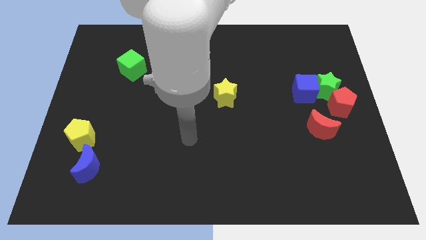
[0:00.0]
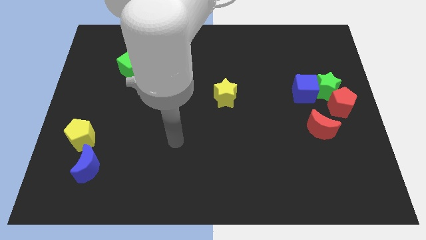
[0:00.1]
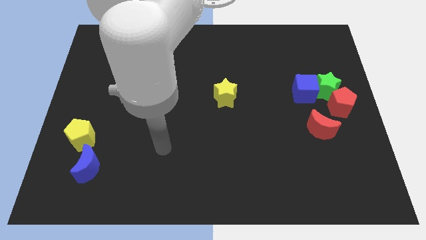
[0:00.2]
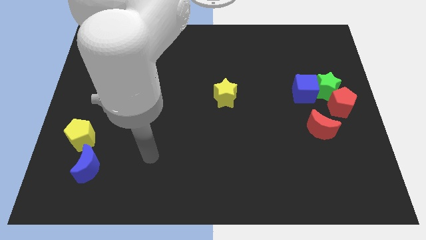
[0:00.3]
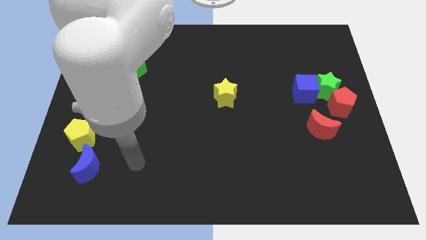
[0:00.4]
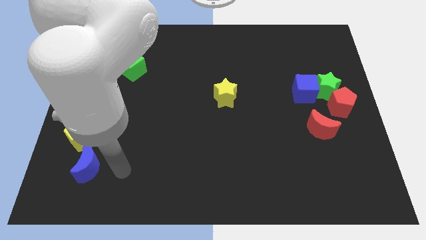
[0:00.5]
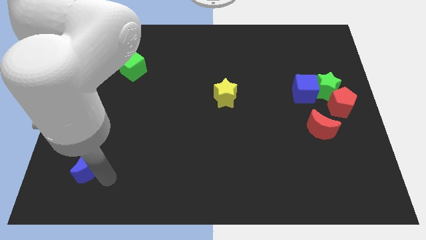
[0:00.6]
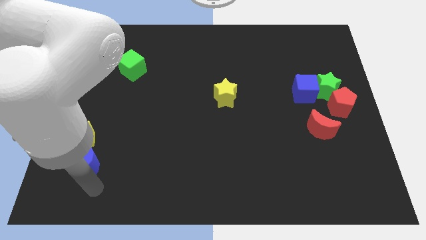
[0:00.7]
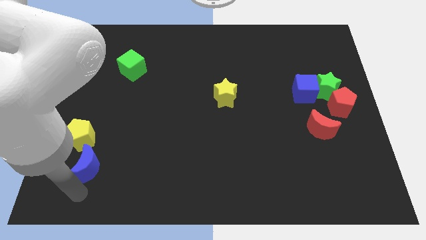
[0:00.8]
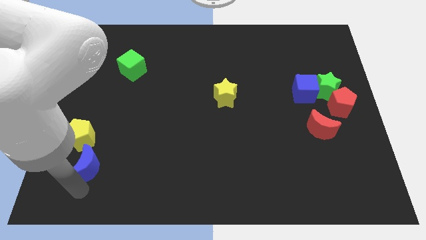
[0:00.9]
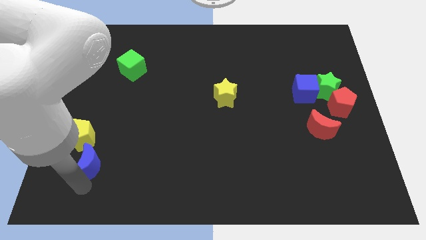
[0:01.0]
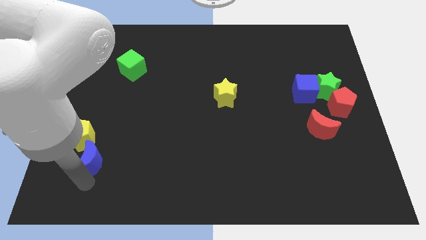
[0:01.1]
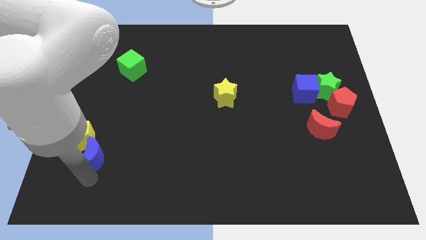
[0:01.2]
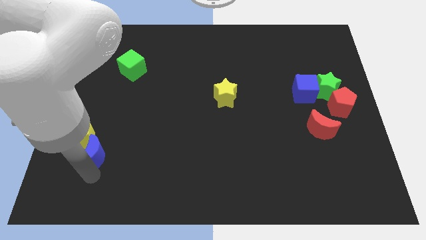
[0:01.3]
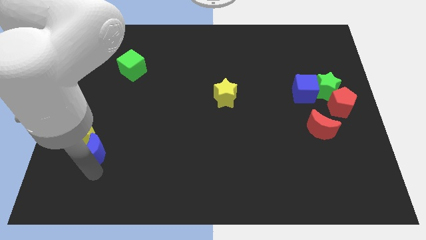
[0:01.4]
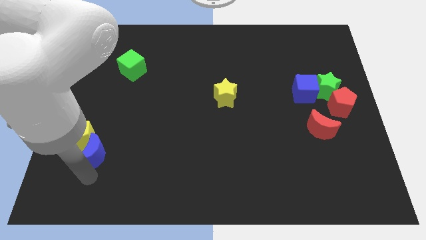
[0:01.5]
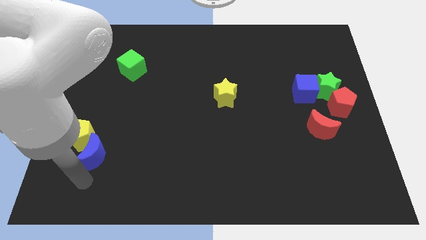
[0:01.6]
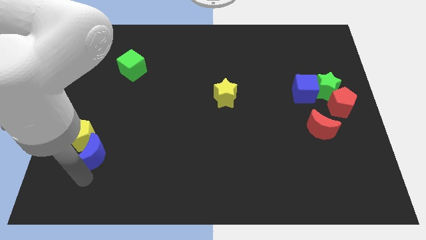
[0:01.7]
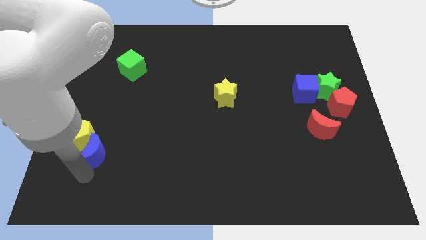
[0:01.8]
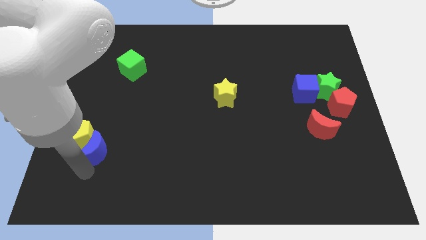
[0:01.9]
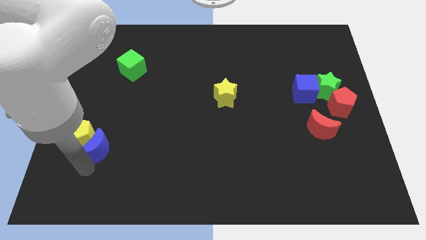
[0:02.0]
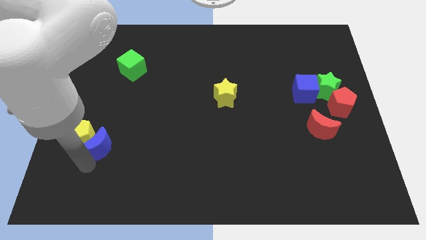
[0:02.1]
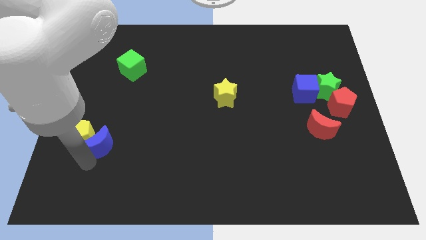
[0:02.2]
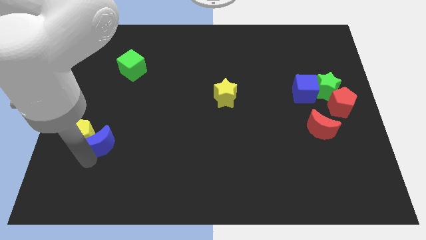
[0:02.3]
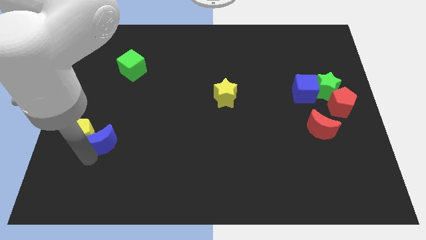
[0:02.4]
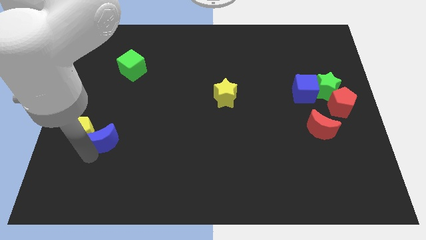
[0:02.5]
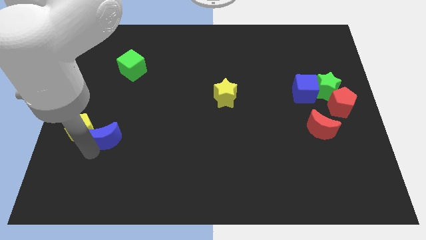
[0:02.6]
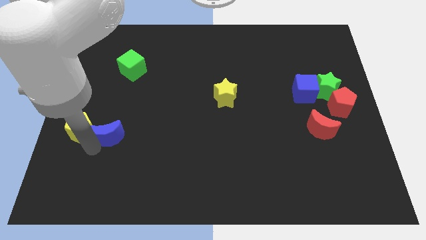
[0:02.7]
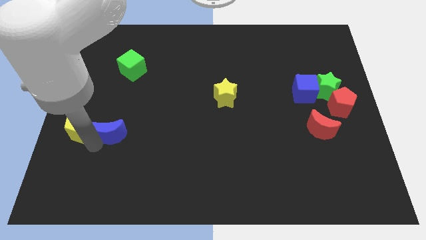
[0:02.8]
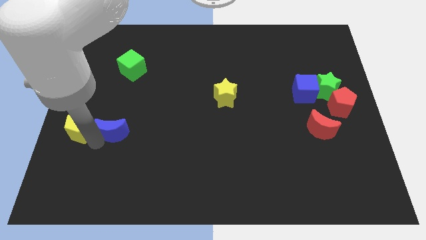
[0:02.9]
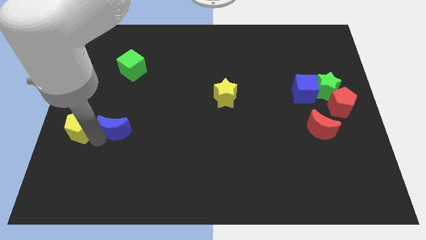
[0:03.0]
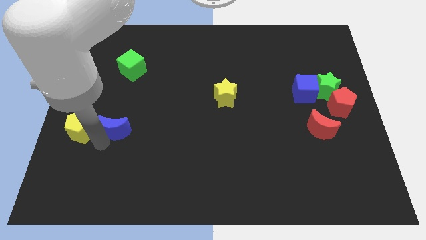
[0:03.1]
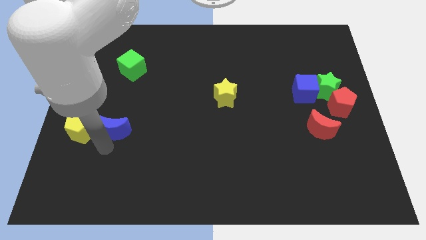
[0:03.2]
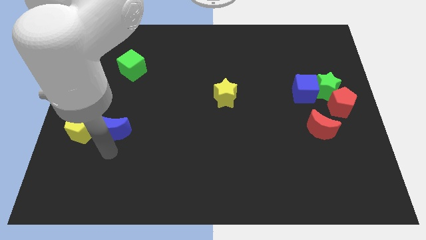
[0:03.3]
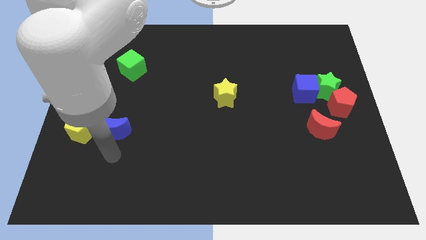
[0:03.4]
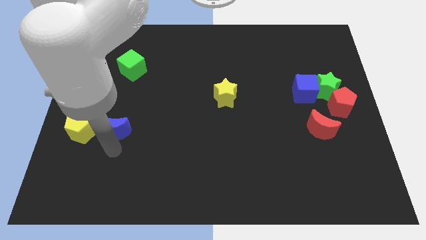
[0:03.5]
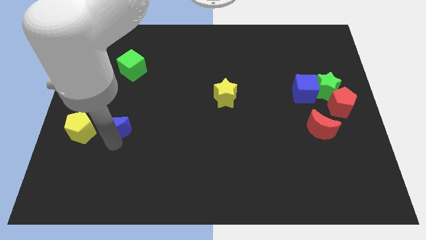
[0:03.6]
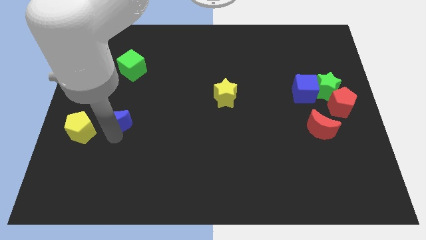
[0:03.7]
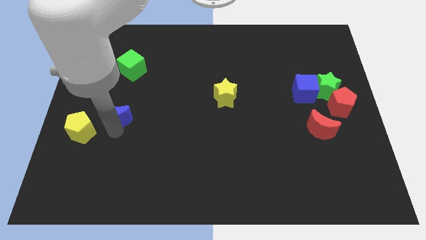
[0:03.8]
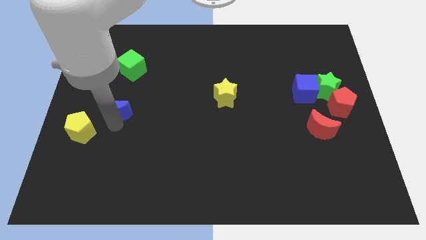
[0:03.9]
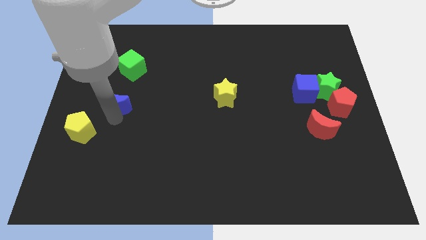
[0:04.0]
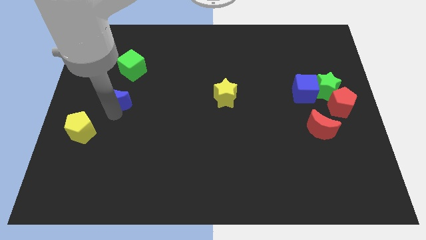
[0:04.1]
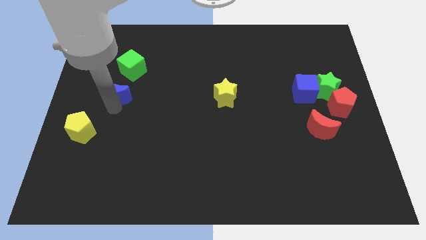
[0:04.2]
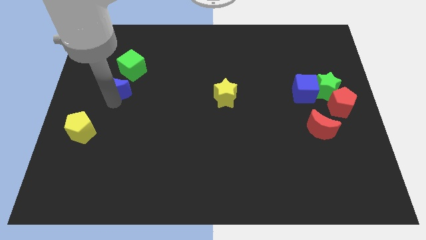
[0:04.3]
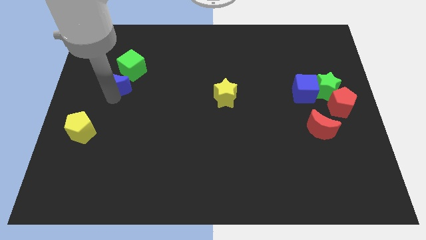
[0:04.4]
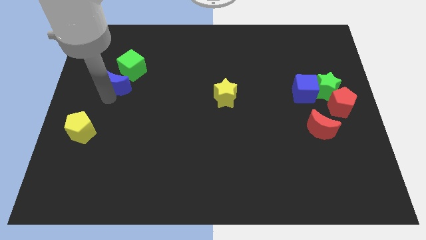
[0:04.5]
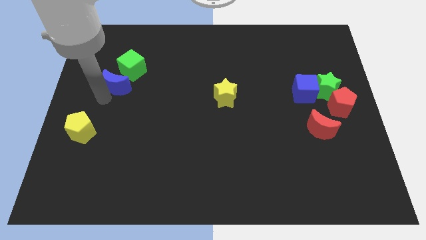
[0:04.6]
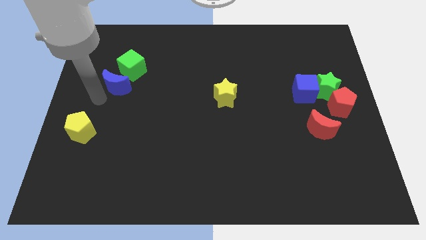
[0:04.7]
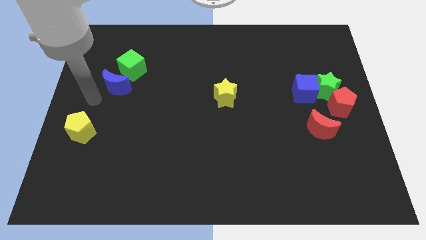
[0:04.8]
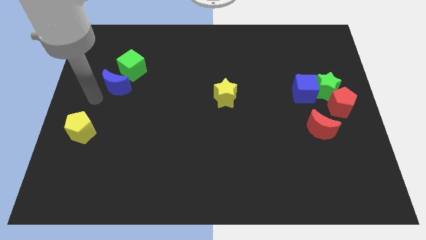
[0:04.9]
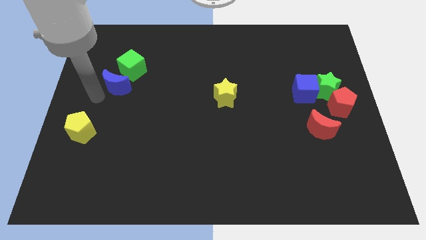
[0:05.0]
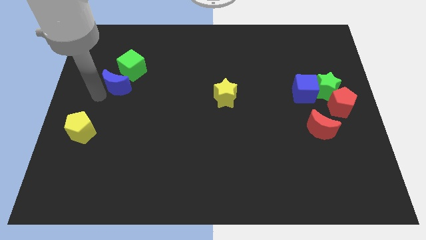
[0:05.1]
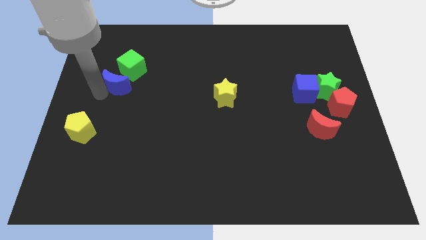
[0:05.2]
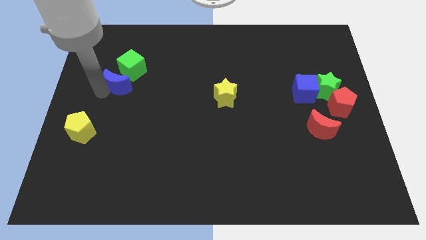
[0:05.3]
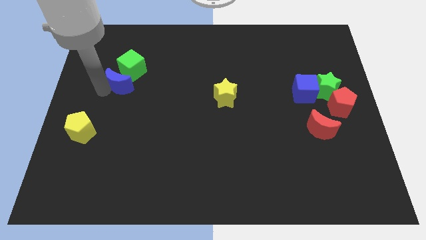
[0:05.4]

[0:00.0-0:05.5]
put the blue moon to the green cube

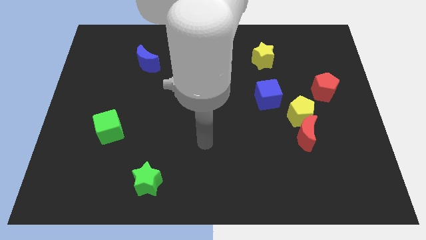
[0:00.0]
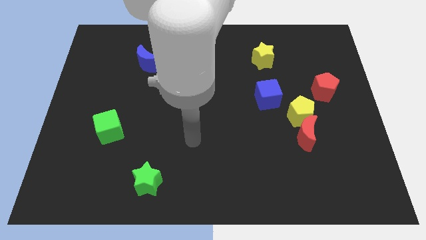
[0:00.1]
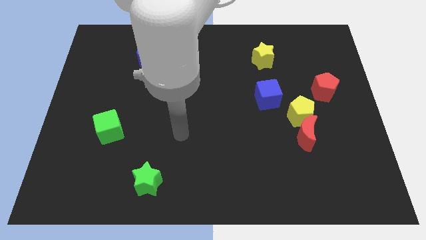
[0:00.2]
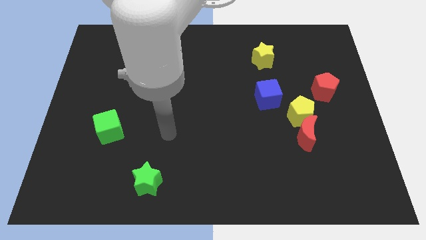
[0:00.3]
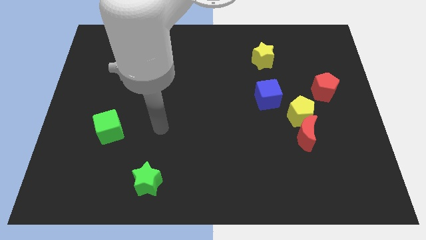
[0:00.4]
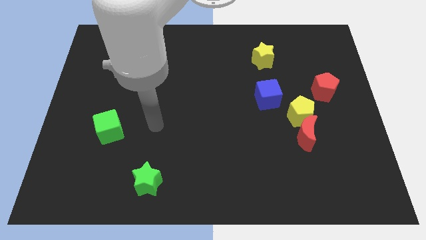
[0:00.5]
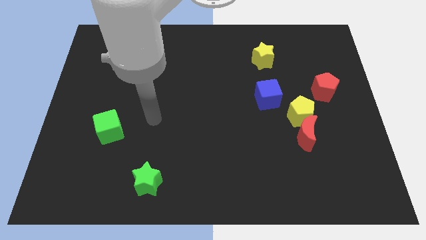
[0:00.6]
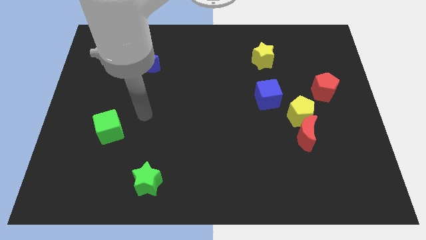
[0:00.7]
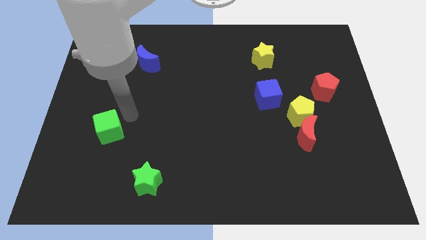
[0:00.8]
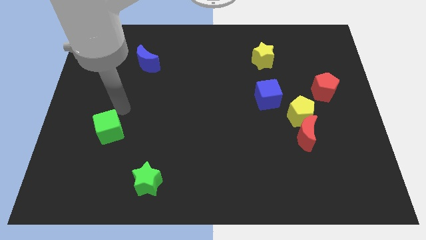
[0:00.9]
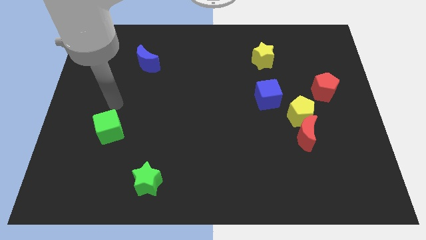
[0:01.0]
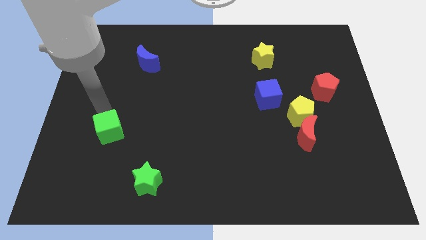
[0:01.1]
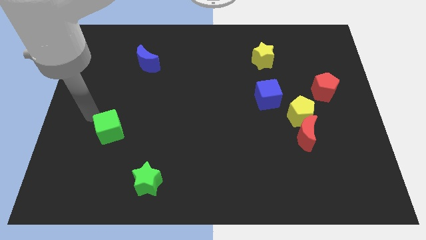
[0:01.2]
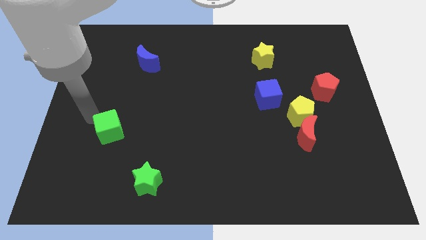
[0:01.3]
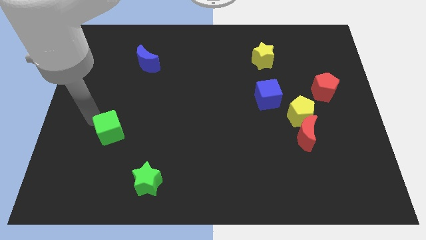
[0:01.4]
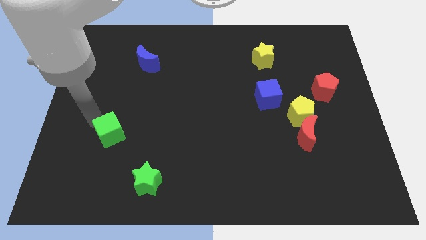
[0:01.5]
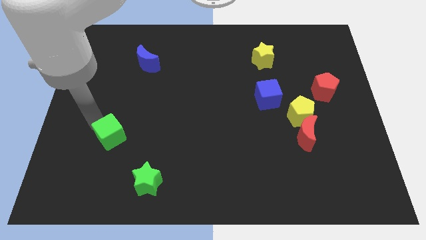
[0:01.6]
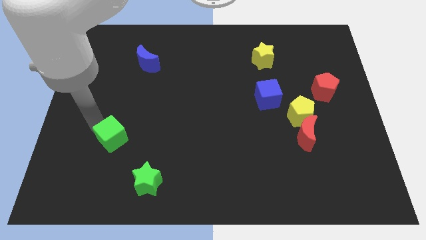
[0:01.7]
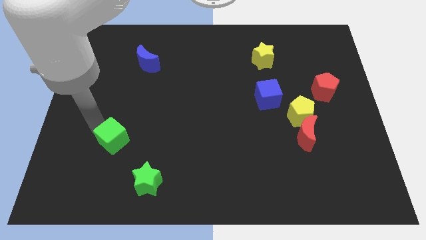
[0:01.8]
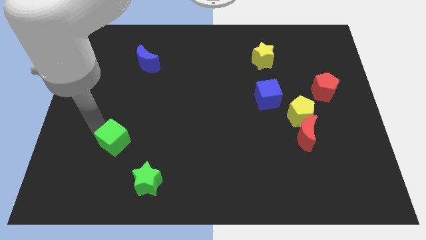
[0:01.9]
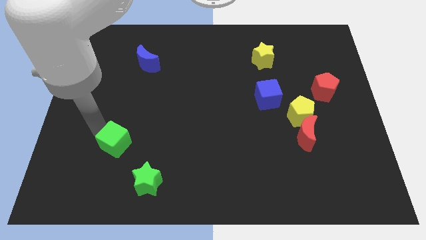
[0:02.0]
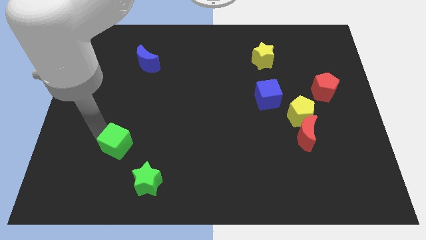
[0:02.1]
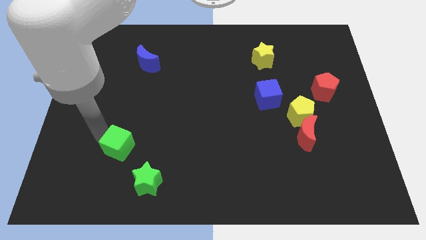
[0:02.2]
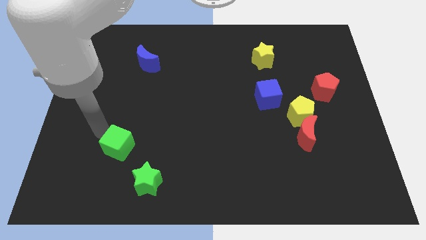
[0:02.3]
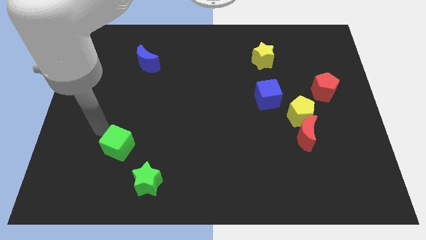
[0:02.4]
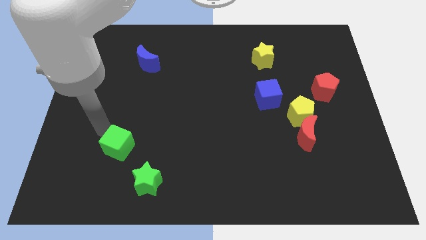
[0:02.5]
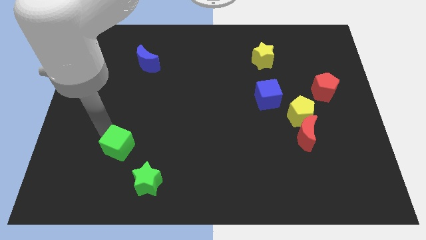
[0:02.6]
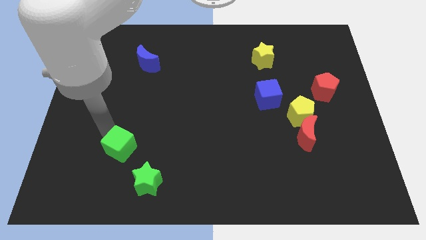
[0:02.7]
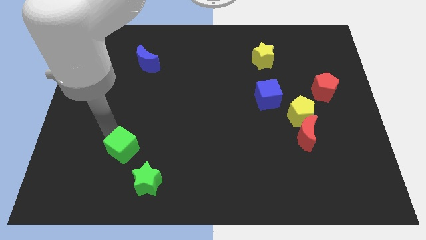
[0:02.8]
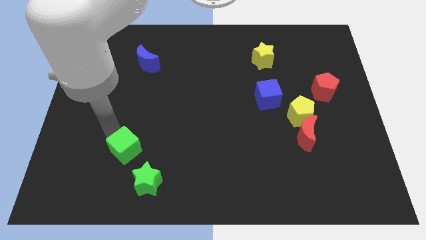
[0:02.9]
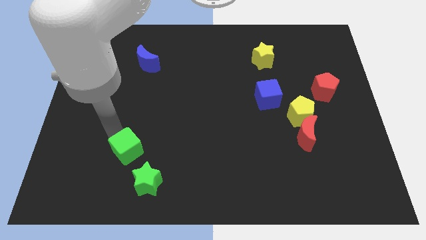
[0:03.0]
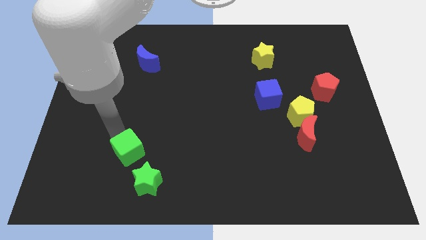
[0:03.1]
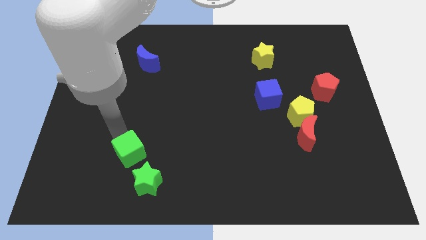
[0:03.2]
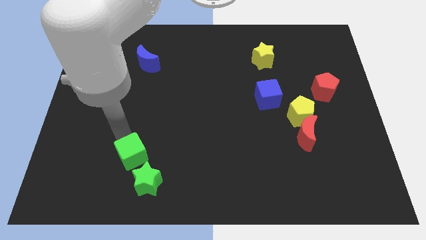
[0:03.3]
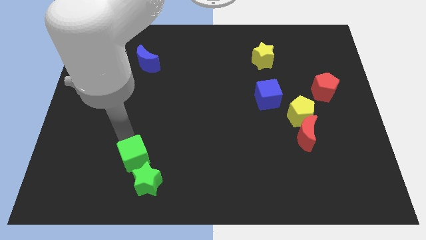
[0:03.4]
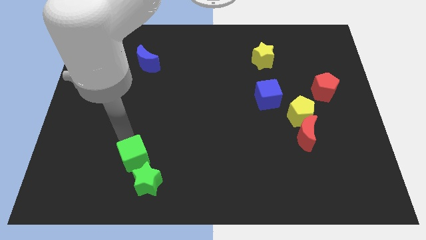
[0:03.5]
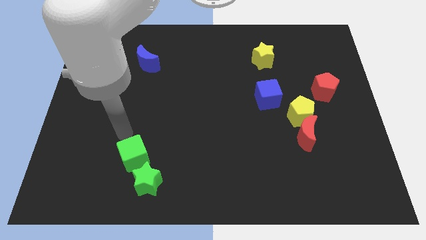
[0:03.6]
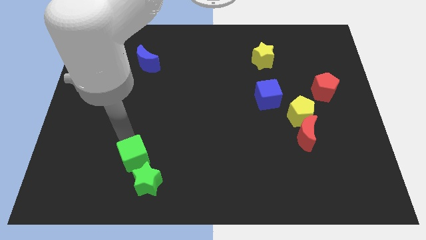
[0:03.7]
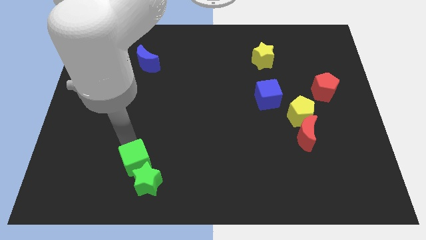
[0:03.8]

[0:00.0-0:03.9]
move the green cube towards the green star
